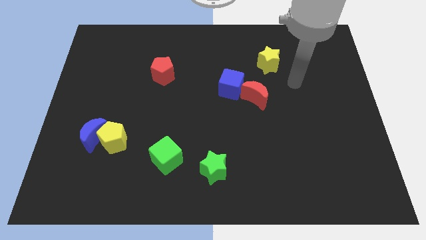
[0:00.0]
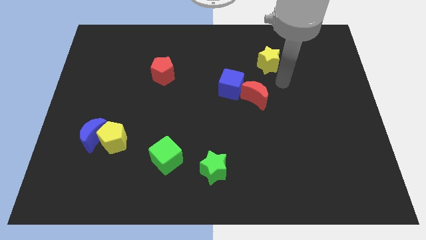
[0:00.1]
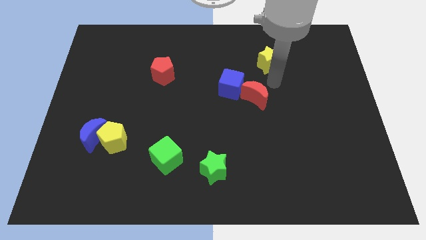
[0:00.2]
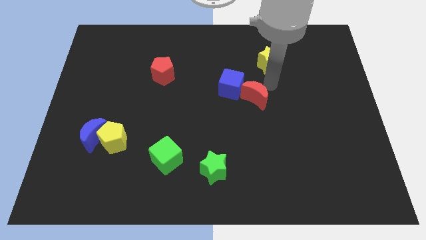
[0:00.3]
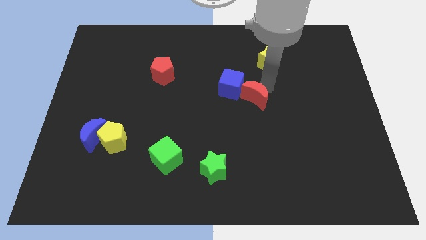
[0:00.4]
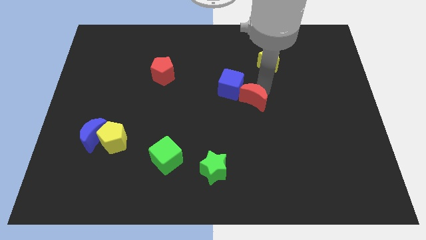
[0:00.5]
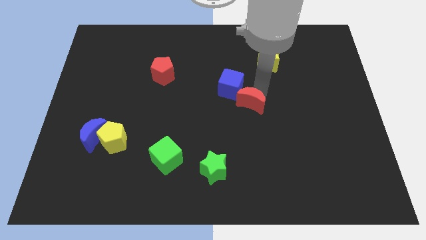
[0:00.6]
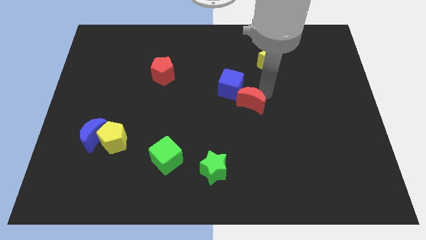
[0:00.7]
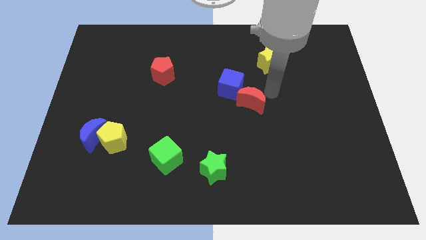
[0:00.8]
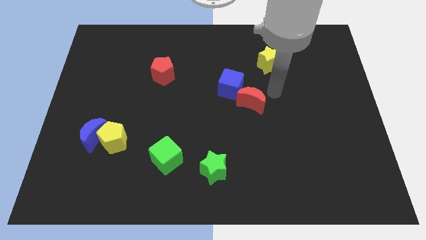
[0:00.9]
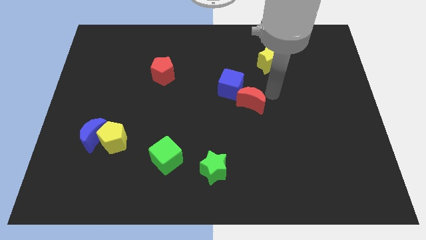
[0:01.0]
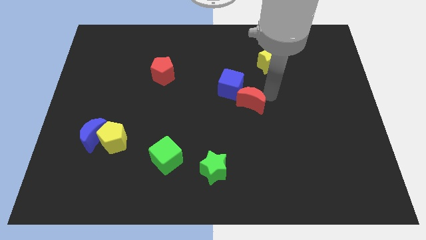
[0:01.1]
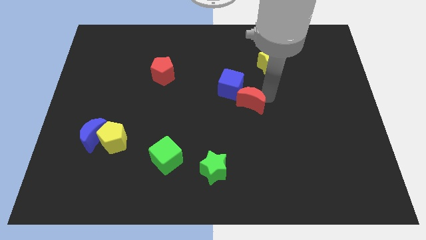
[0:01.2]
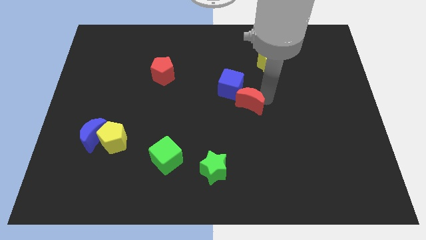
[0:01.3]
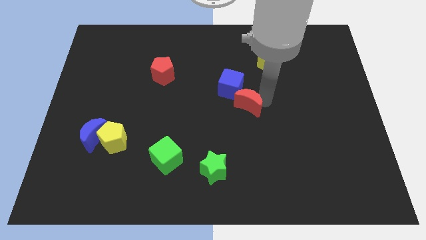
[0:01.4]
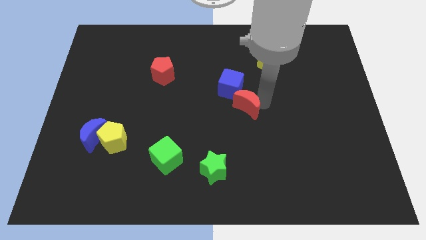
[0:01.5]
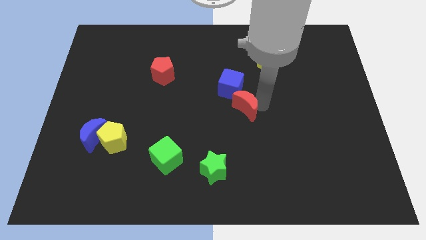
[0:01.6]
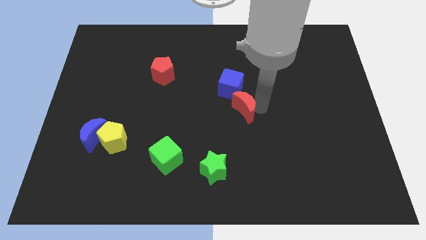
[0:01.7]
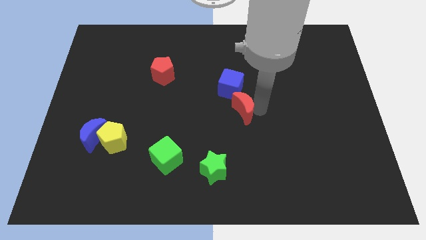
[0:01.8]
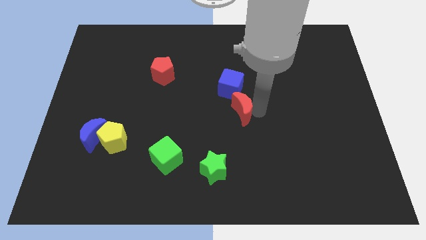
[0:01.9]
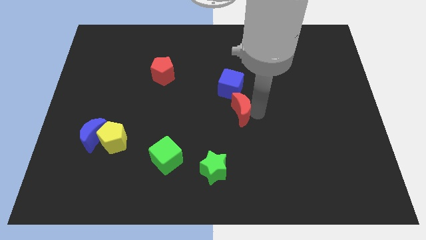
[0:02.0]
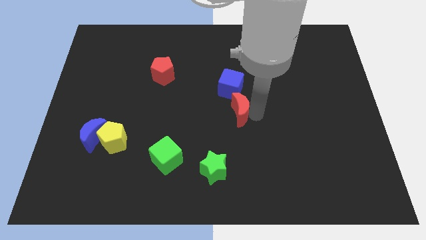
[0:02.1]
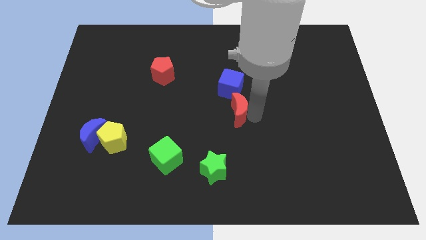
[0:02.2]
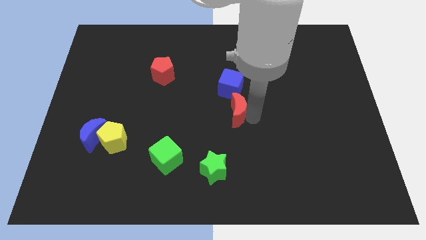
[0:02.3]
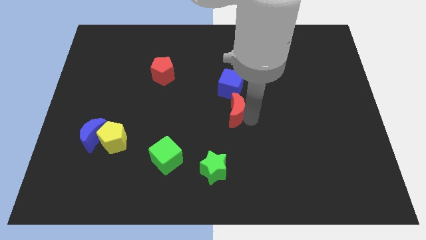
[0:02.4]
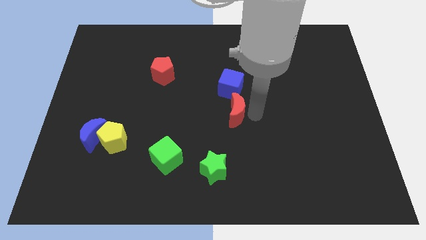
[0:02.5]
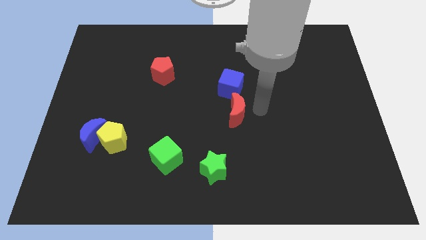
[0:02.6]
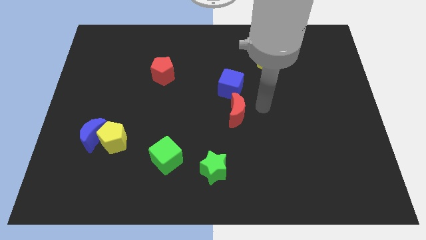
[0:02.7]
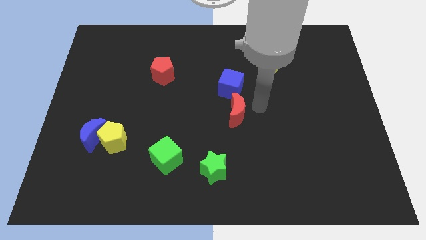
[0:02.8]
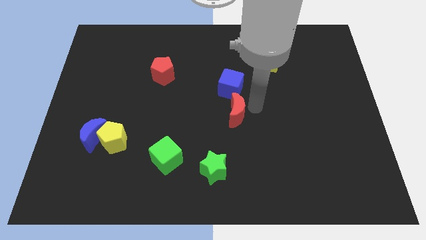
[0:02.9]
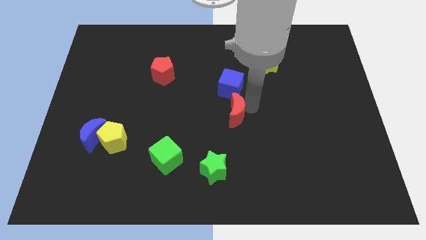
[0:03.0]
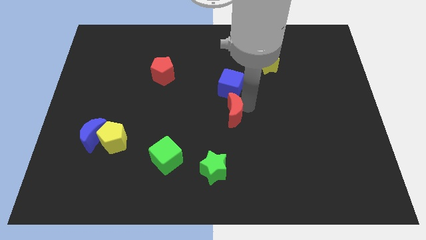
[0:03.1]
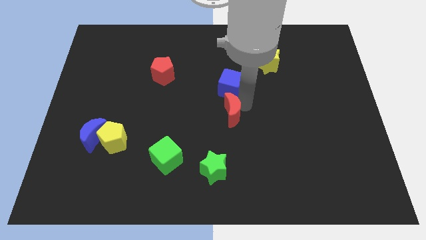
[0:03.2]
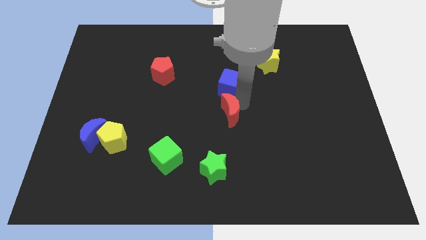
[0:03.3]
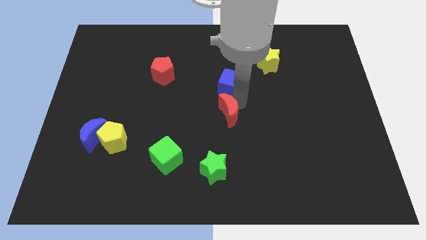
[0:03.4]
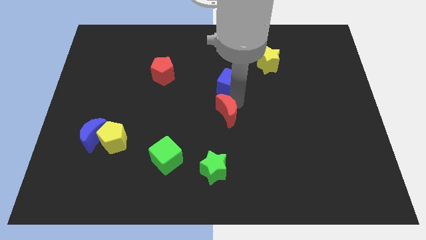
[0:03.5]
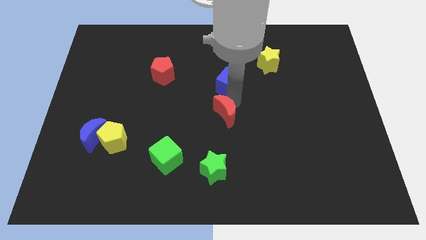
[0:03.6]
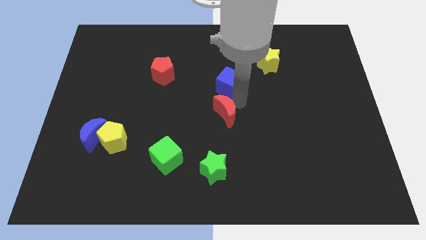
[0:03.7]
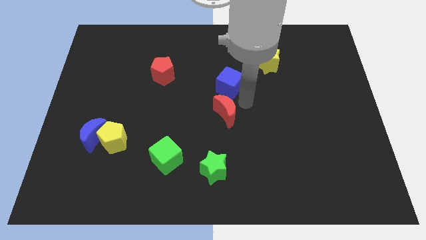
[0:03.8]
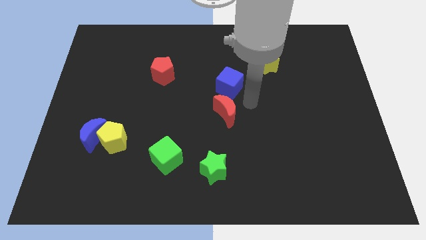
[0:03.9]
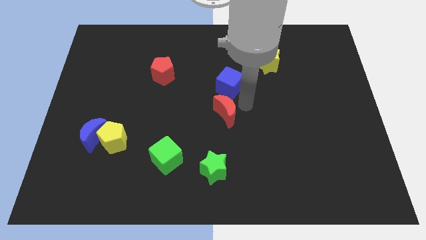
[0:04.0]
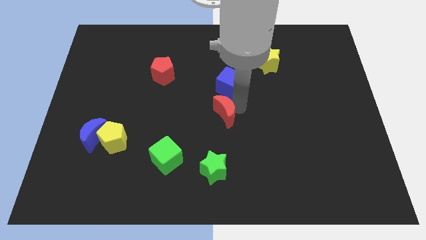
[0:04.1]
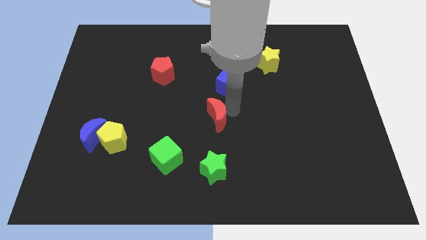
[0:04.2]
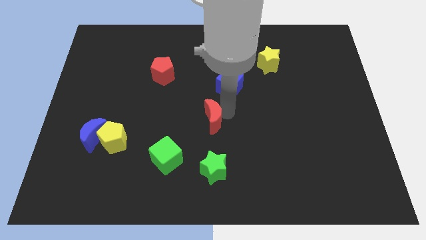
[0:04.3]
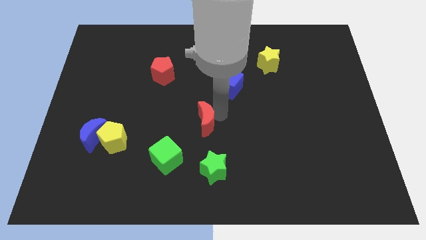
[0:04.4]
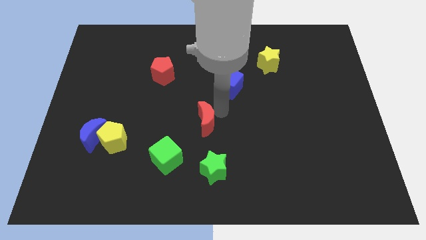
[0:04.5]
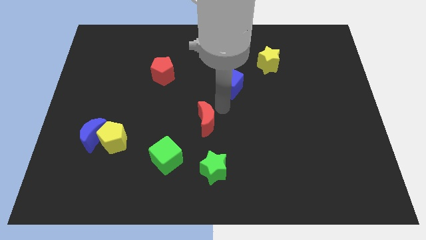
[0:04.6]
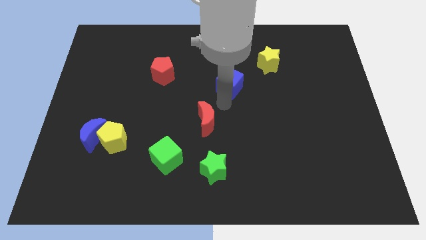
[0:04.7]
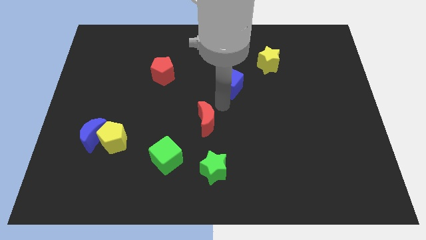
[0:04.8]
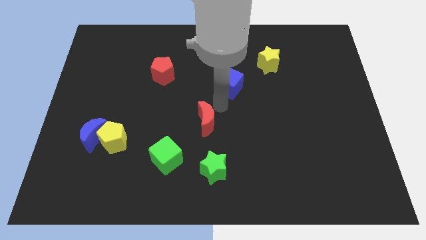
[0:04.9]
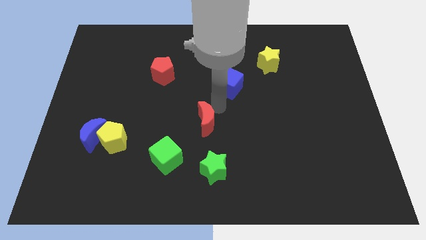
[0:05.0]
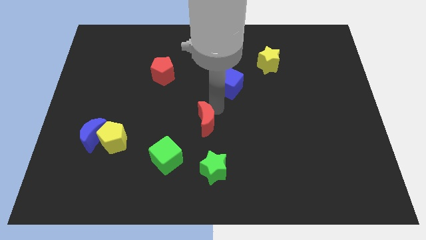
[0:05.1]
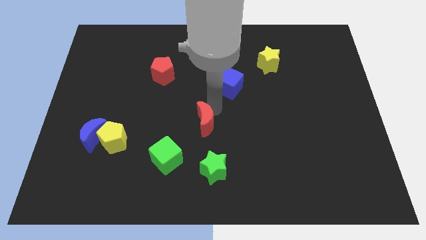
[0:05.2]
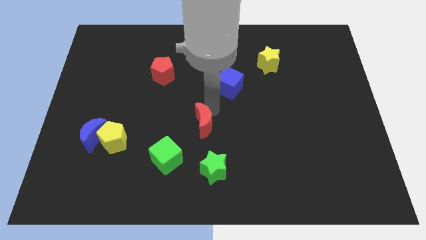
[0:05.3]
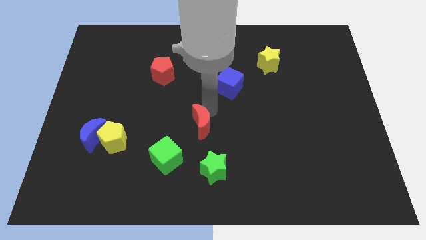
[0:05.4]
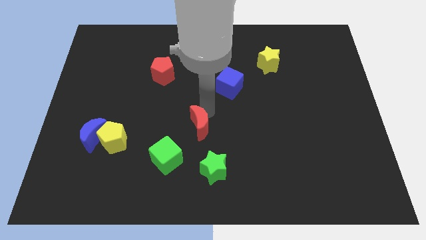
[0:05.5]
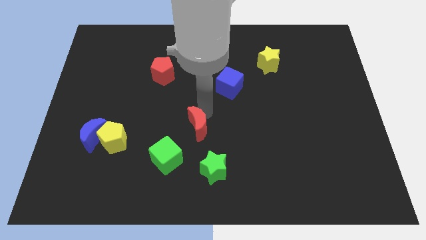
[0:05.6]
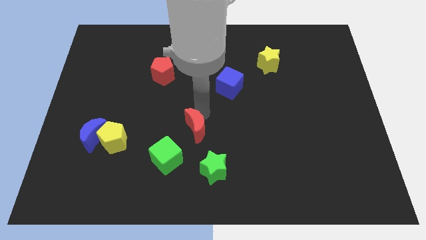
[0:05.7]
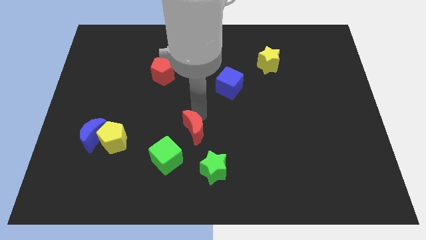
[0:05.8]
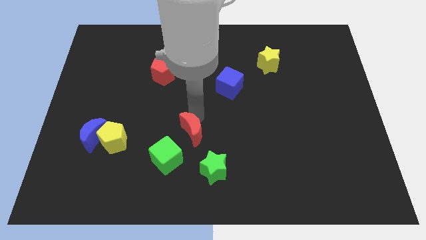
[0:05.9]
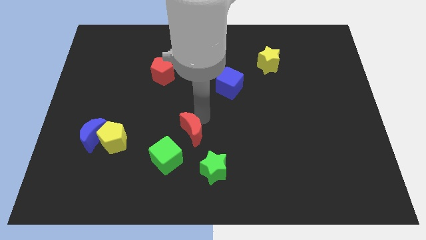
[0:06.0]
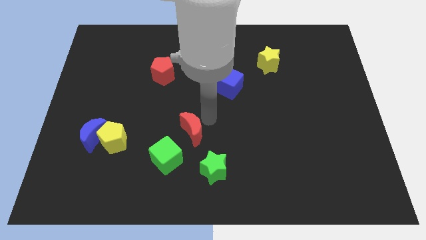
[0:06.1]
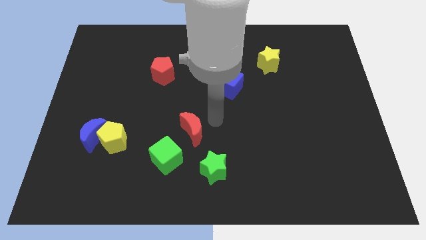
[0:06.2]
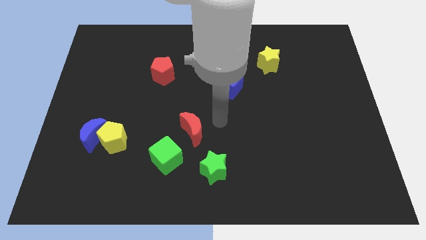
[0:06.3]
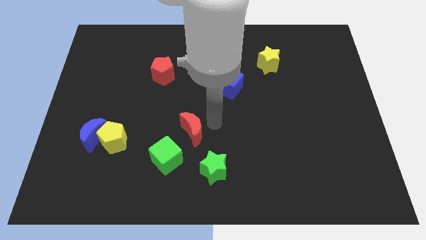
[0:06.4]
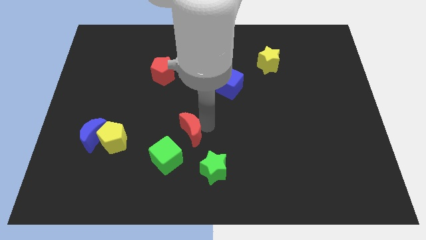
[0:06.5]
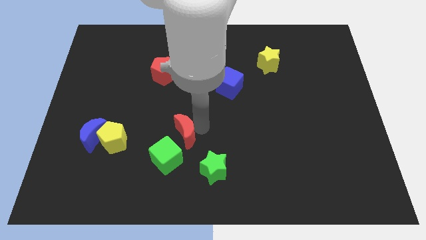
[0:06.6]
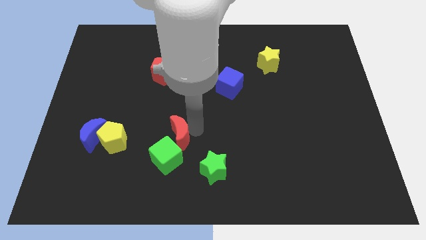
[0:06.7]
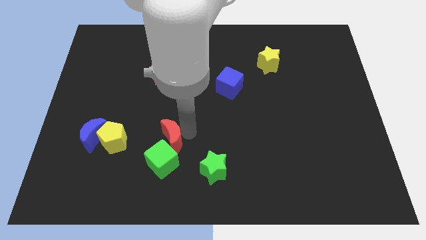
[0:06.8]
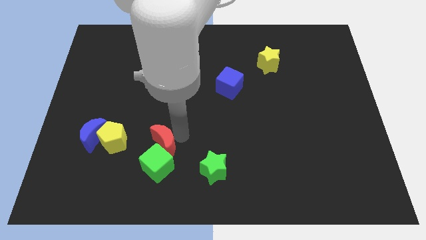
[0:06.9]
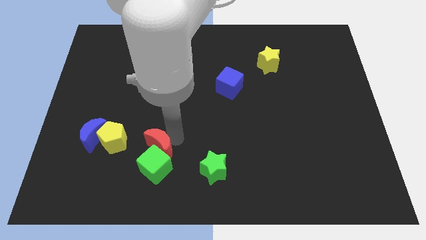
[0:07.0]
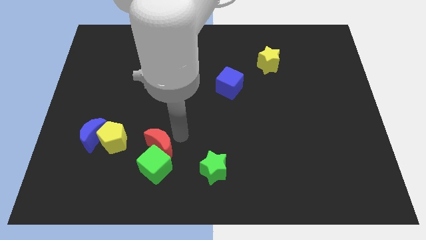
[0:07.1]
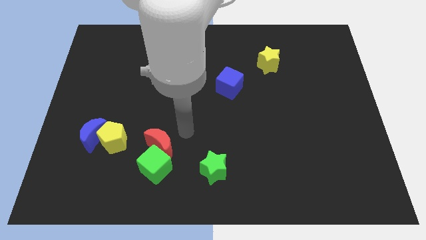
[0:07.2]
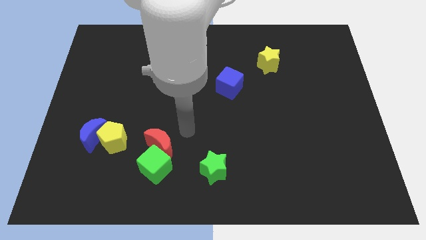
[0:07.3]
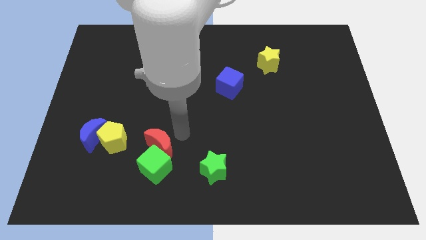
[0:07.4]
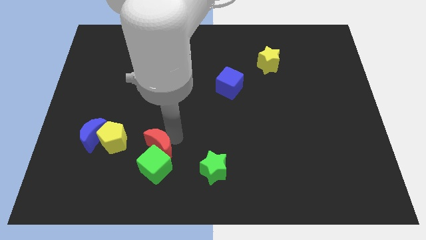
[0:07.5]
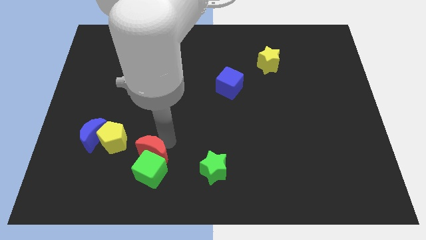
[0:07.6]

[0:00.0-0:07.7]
put the red moon diagonally down and to the right of the yellow pentagon
